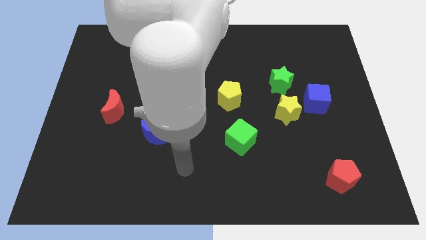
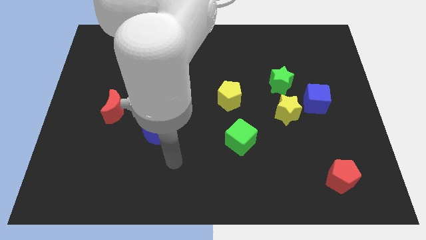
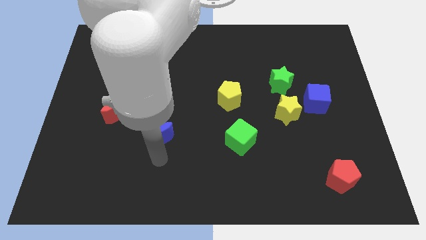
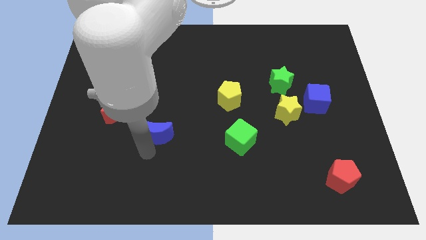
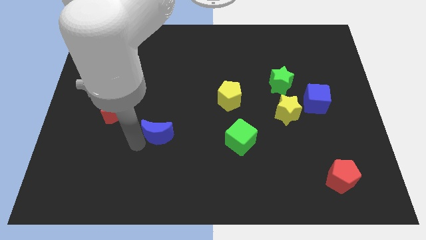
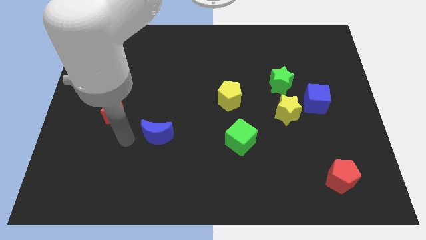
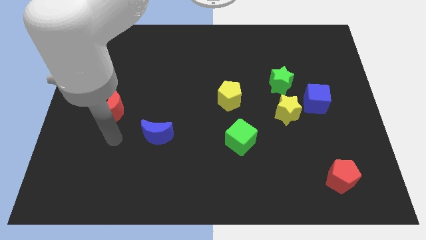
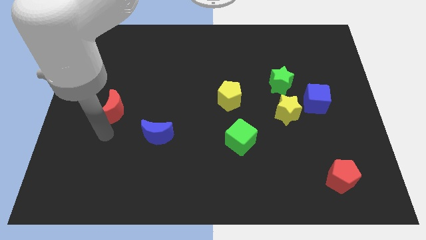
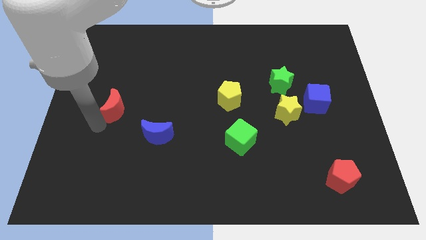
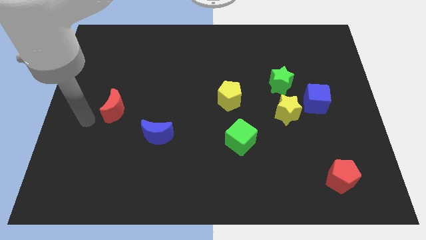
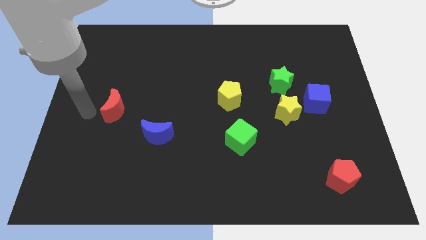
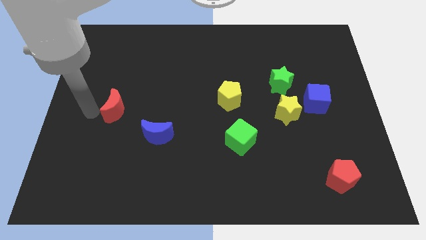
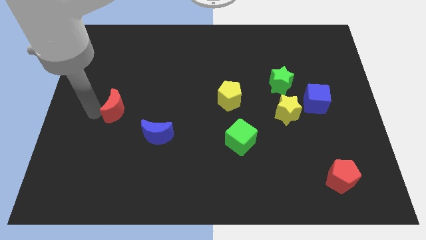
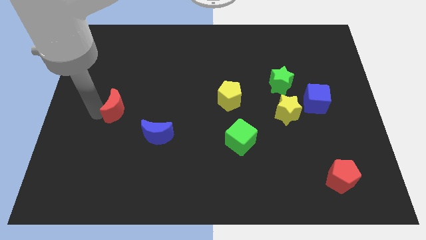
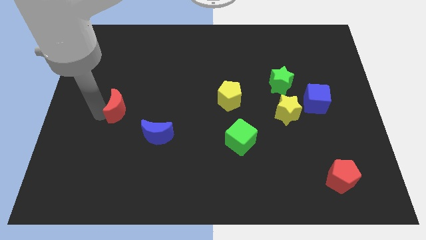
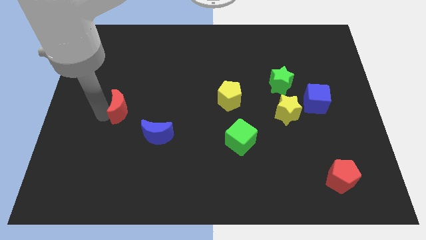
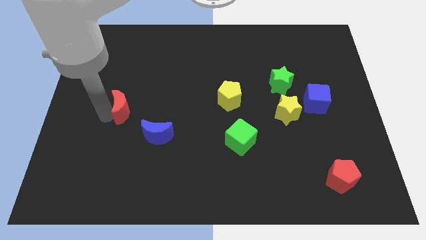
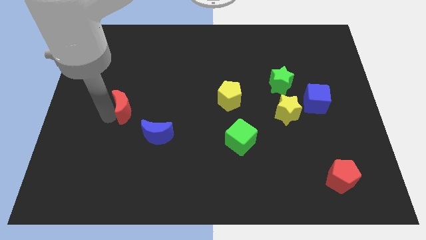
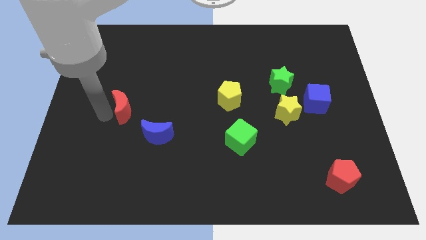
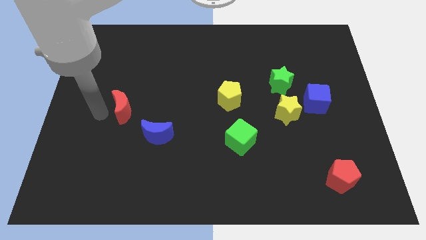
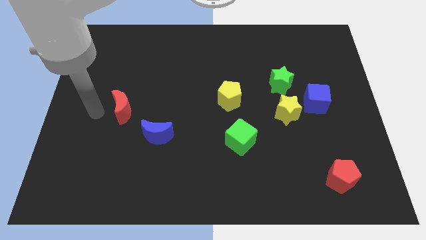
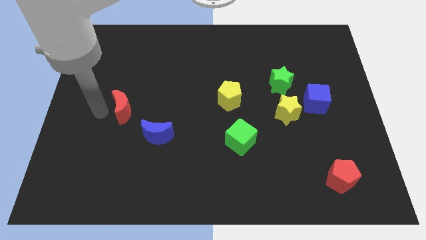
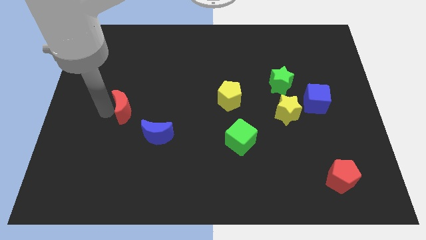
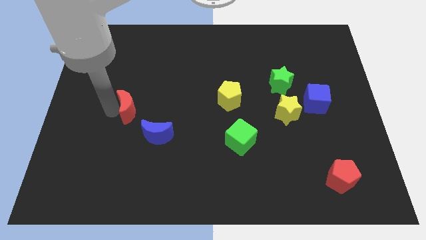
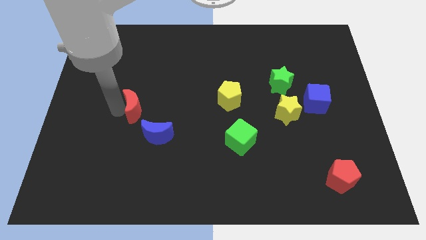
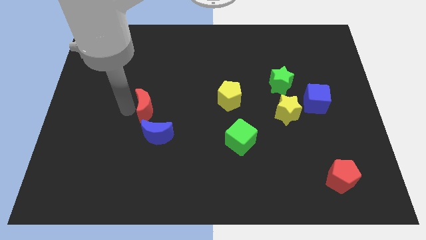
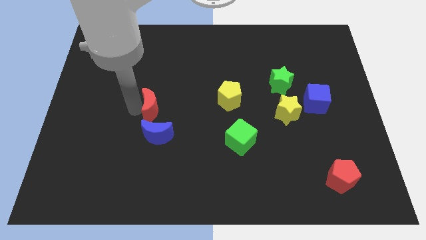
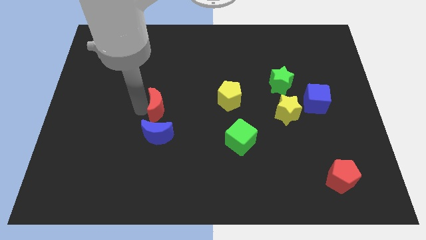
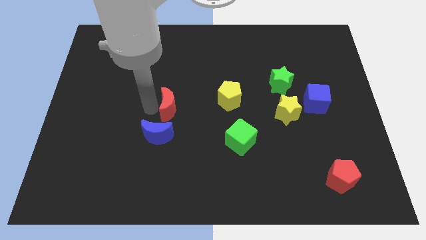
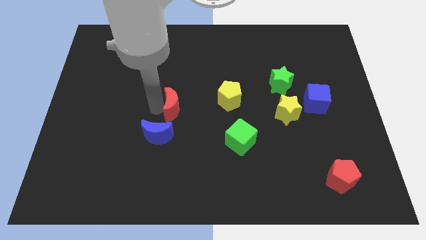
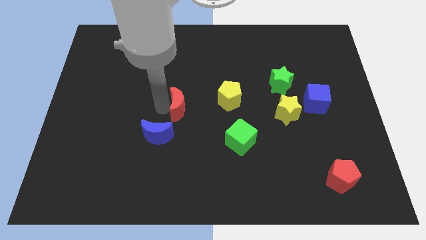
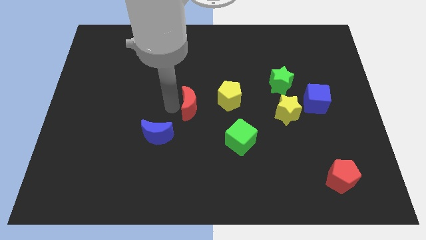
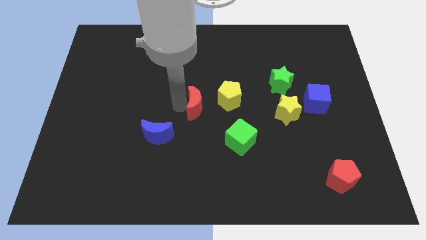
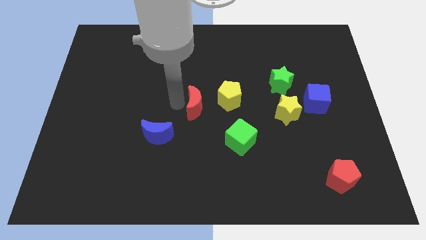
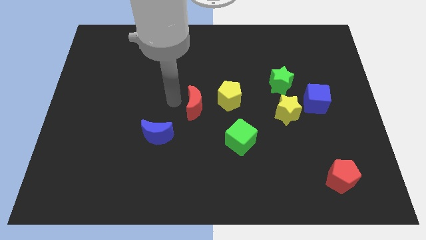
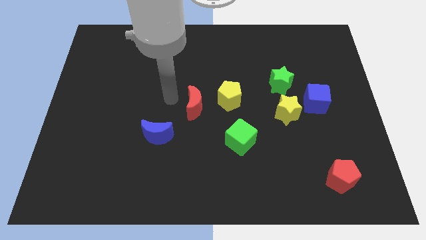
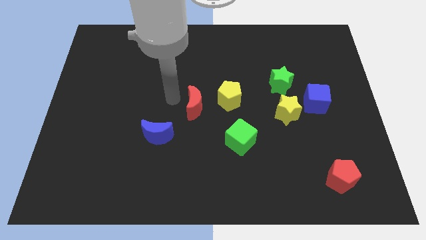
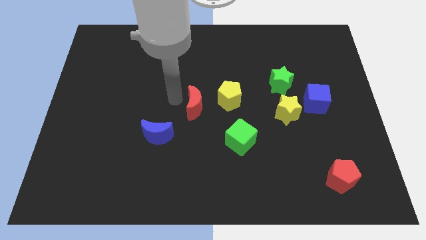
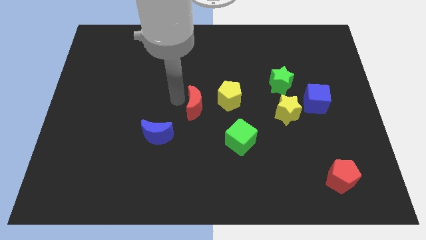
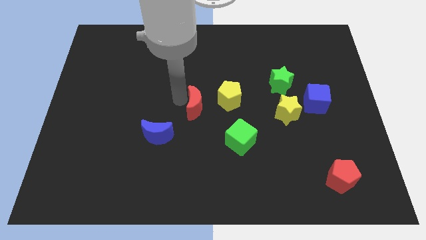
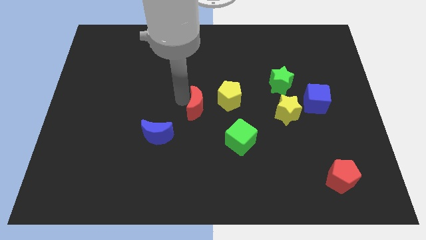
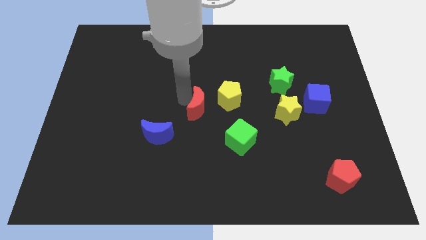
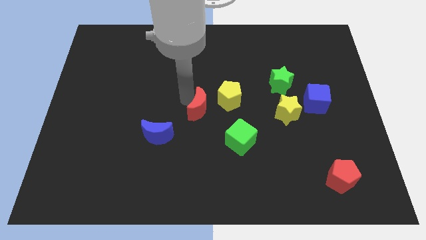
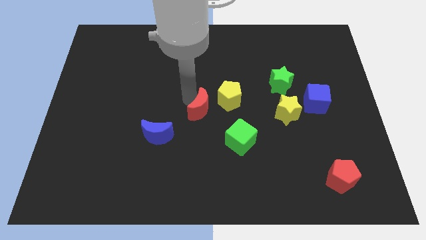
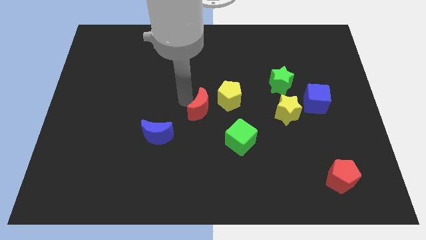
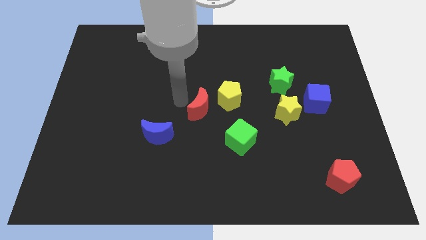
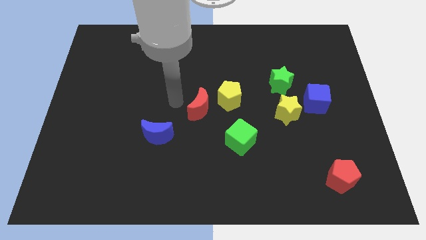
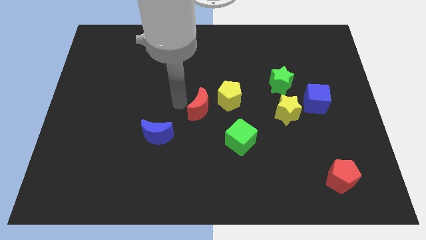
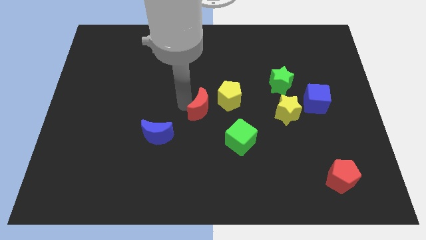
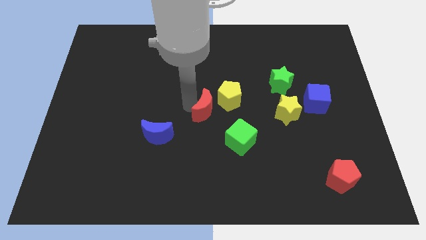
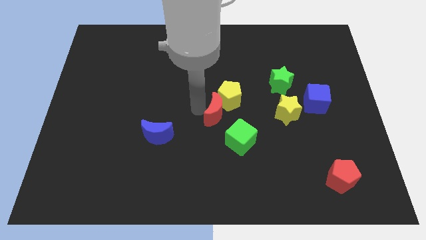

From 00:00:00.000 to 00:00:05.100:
put the red moon just left of the yellow star
